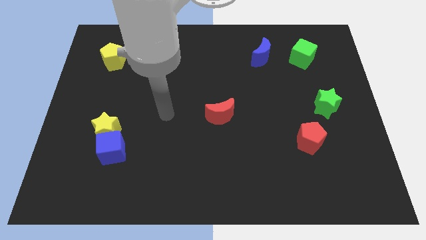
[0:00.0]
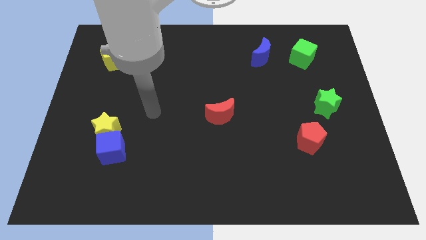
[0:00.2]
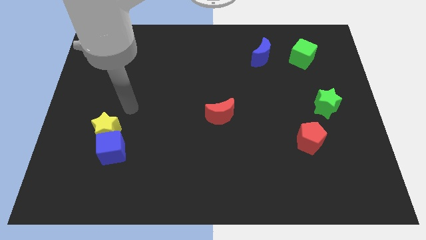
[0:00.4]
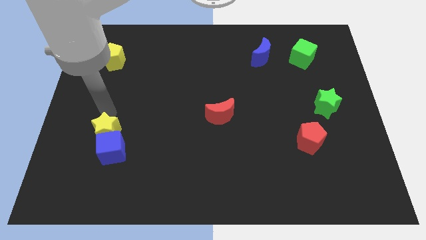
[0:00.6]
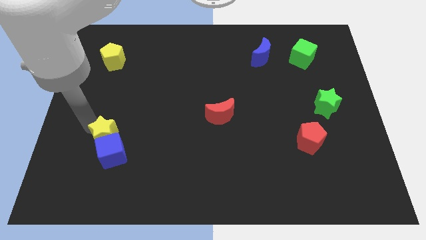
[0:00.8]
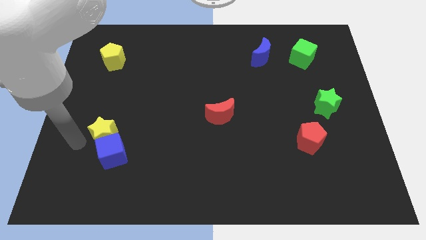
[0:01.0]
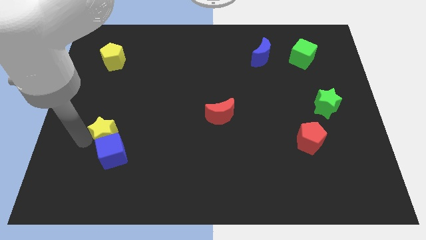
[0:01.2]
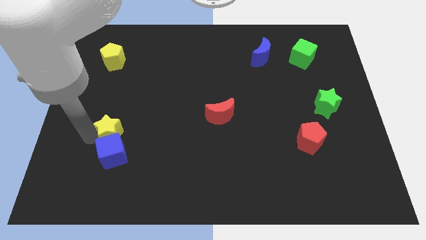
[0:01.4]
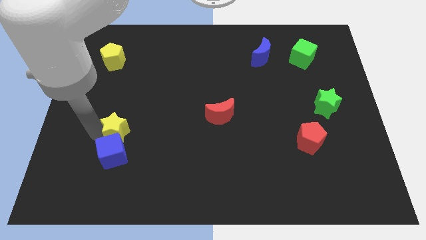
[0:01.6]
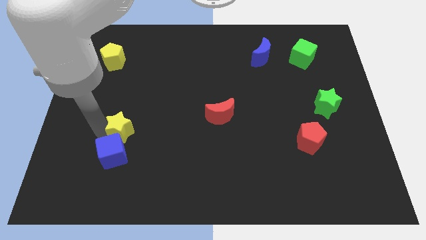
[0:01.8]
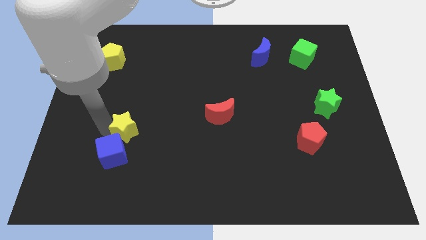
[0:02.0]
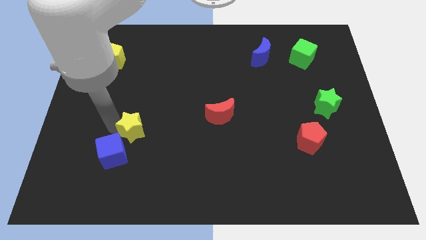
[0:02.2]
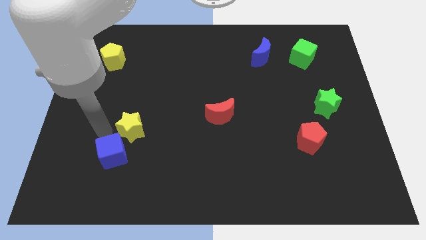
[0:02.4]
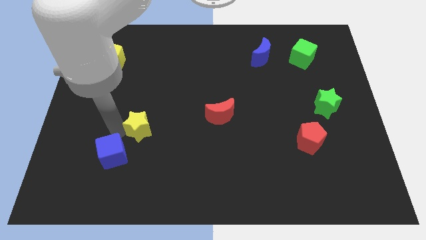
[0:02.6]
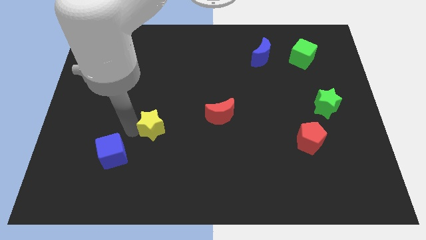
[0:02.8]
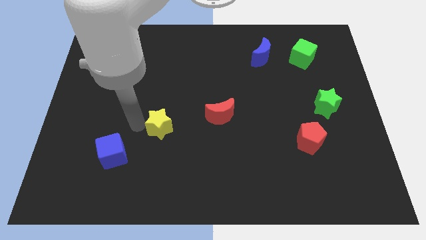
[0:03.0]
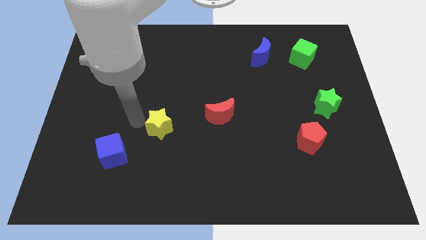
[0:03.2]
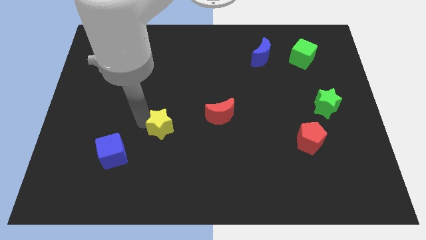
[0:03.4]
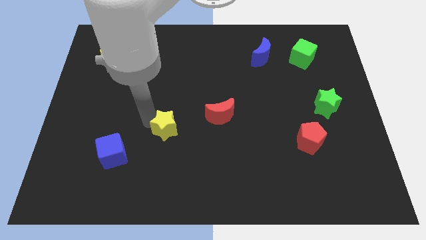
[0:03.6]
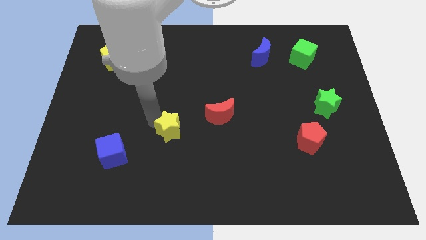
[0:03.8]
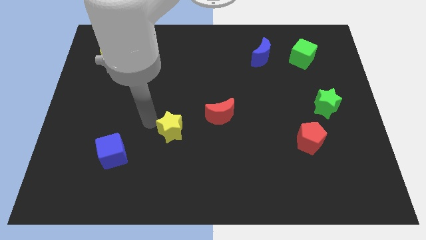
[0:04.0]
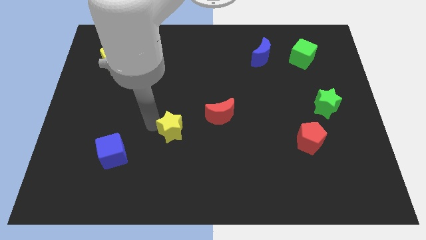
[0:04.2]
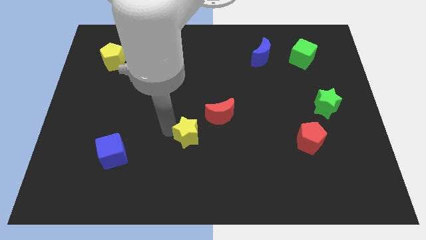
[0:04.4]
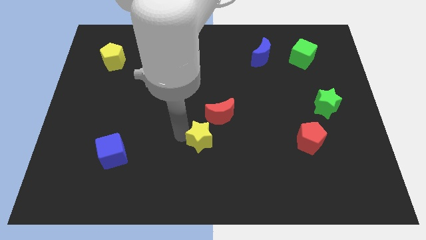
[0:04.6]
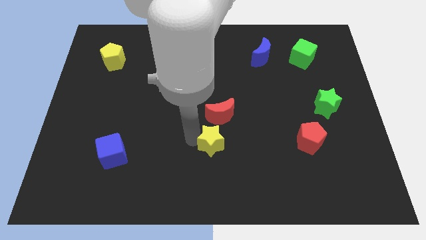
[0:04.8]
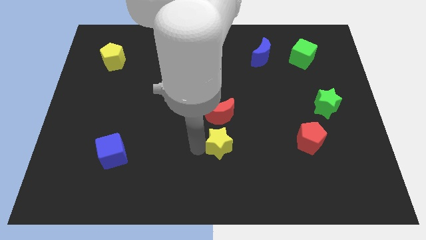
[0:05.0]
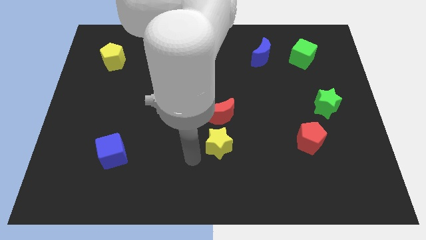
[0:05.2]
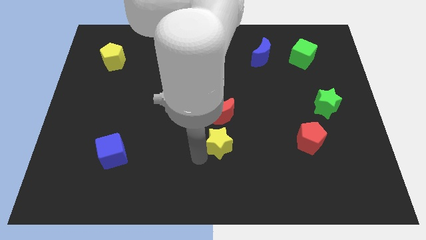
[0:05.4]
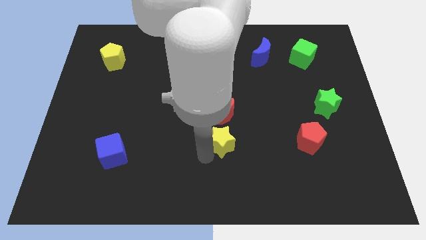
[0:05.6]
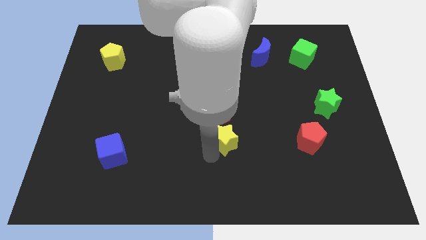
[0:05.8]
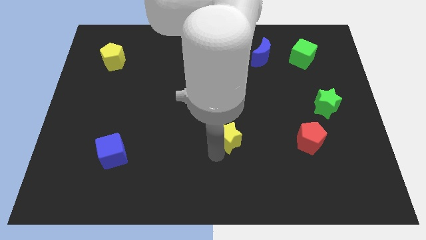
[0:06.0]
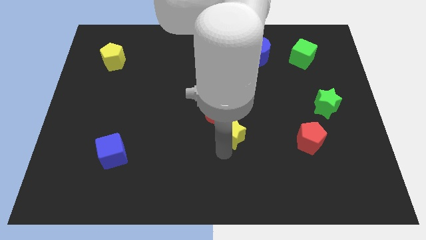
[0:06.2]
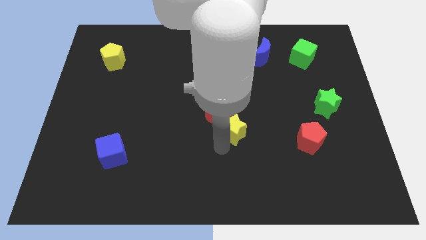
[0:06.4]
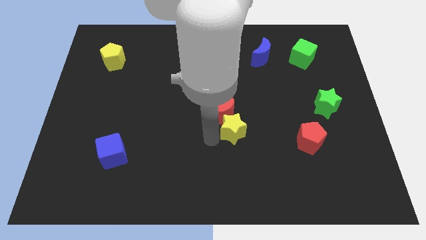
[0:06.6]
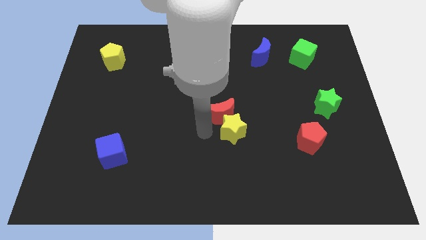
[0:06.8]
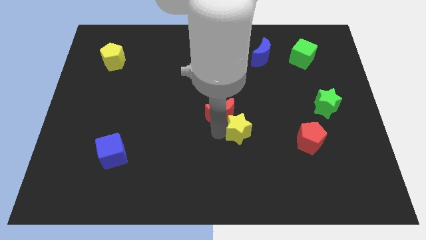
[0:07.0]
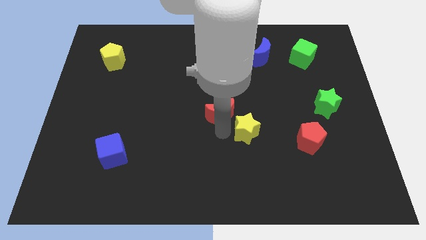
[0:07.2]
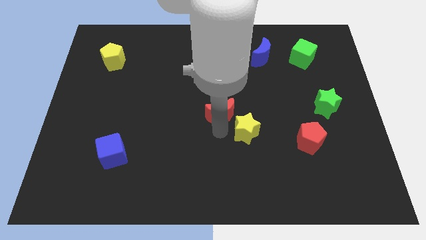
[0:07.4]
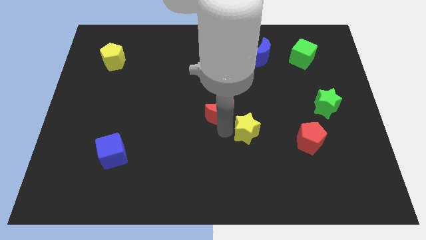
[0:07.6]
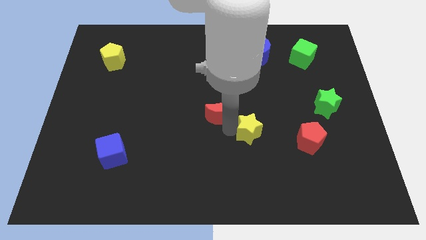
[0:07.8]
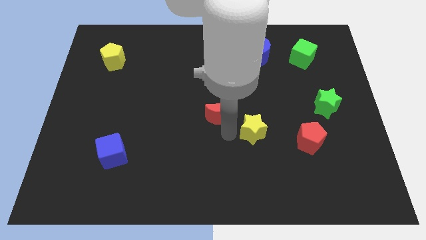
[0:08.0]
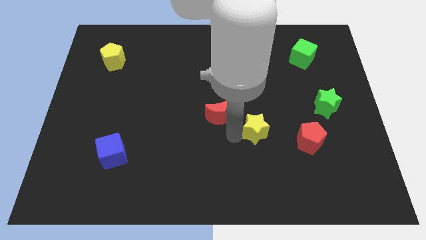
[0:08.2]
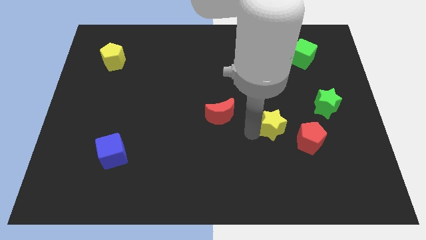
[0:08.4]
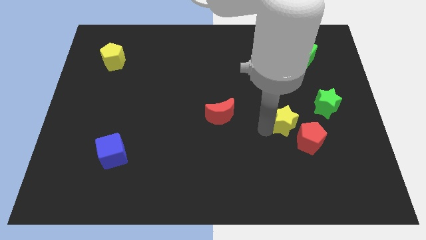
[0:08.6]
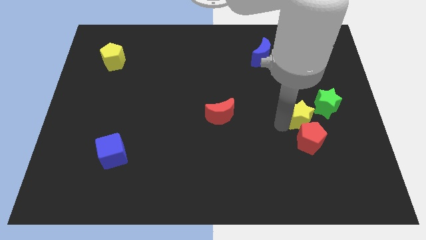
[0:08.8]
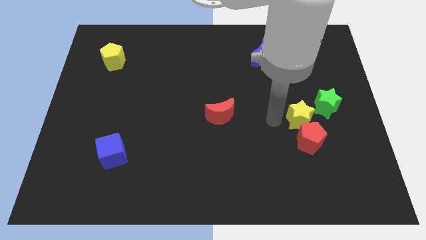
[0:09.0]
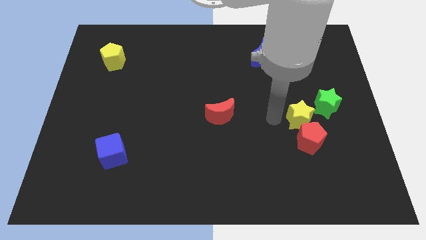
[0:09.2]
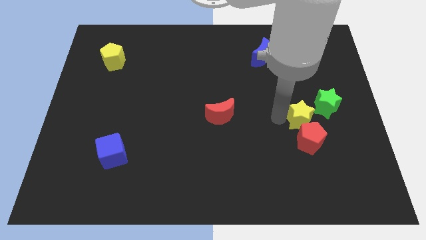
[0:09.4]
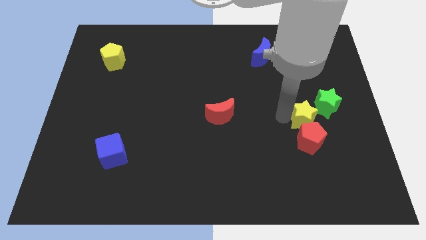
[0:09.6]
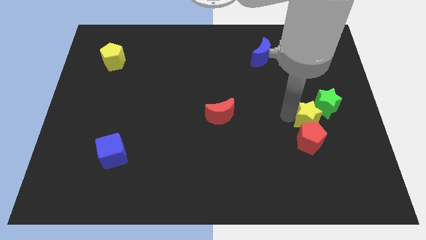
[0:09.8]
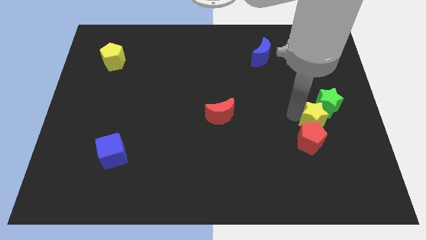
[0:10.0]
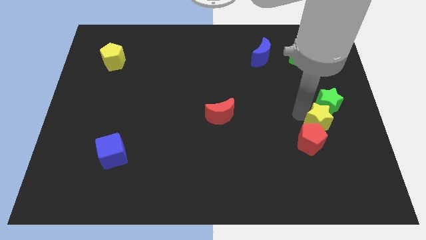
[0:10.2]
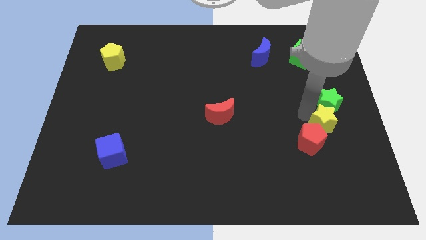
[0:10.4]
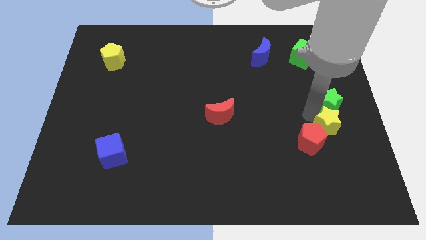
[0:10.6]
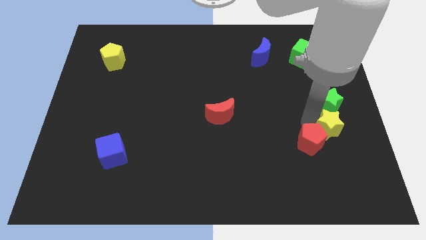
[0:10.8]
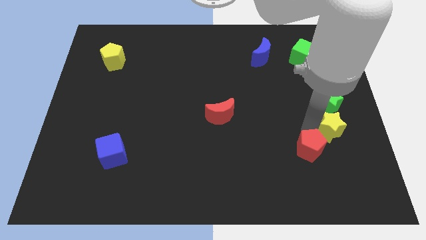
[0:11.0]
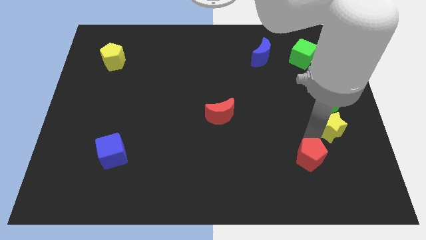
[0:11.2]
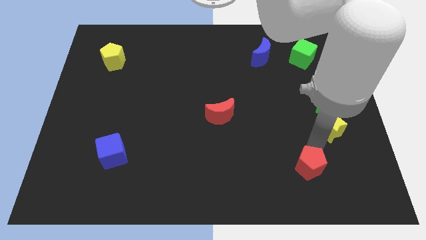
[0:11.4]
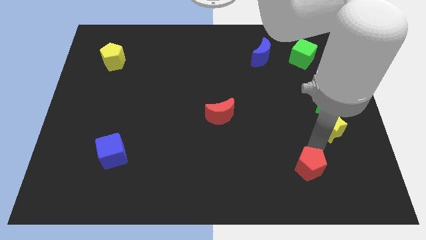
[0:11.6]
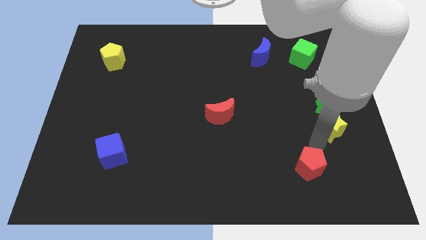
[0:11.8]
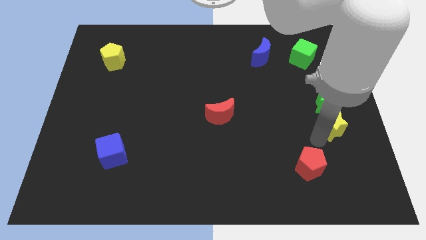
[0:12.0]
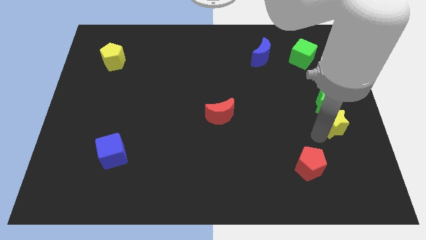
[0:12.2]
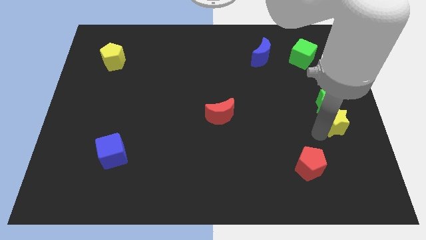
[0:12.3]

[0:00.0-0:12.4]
move the yellow star to the right side of the board
